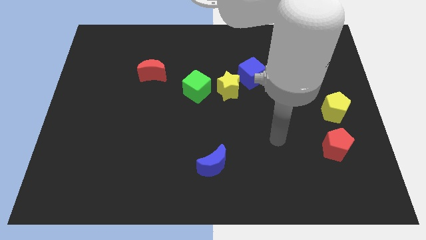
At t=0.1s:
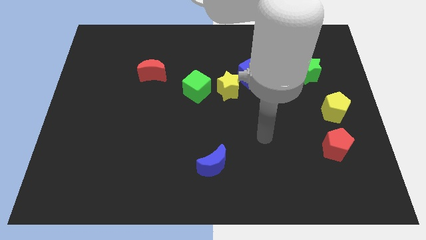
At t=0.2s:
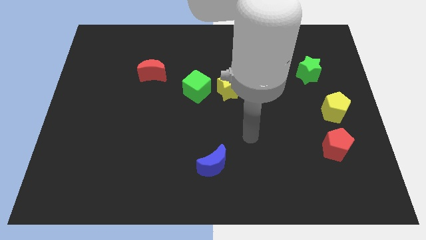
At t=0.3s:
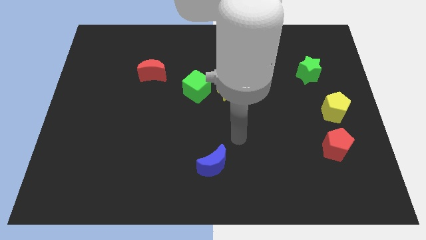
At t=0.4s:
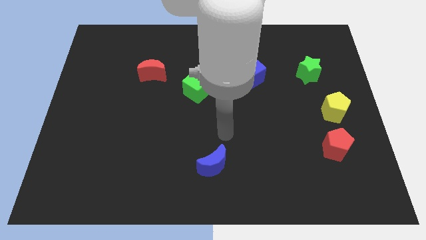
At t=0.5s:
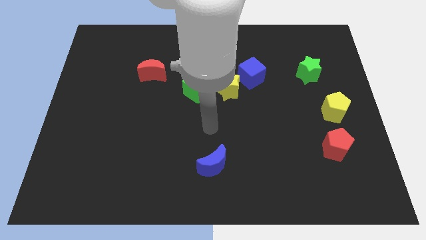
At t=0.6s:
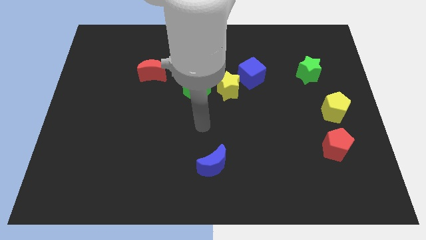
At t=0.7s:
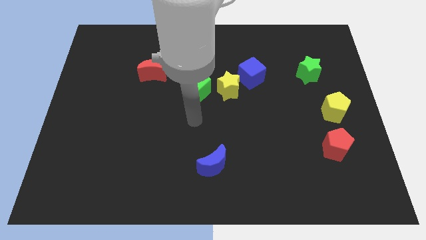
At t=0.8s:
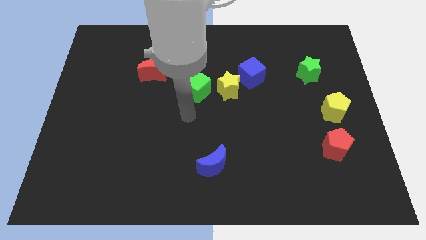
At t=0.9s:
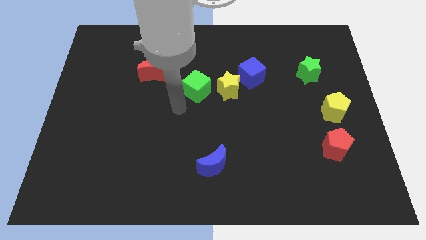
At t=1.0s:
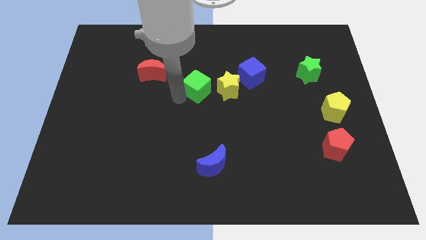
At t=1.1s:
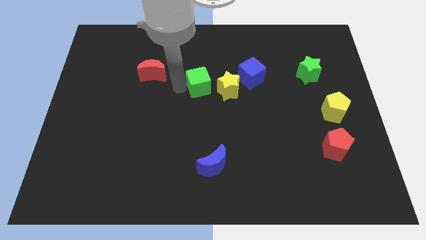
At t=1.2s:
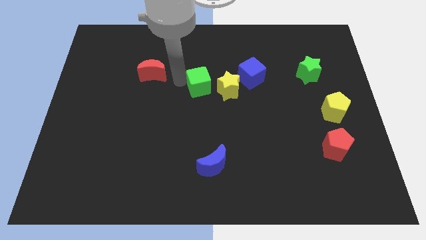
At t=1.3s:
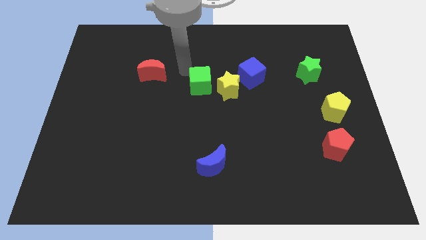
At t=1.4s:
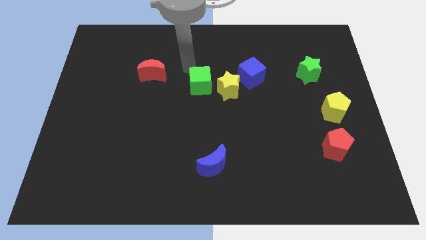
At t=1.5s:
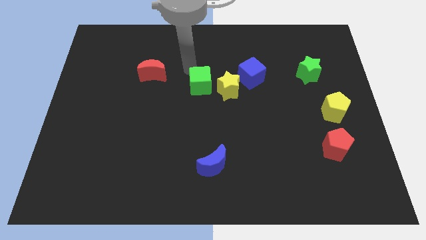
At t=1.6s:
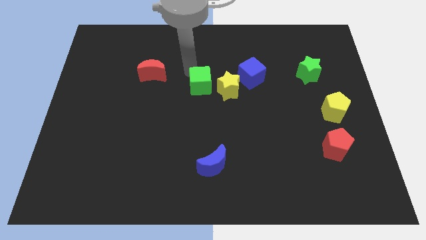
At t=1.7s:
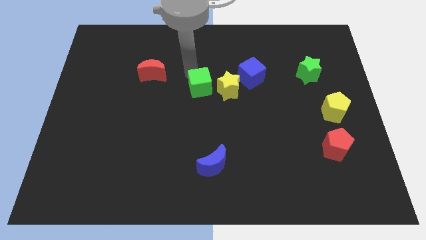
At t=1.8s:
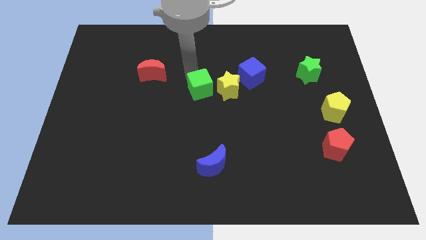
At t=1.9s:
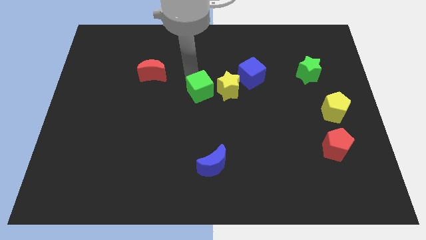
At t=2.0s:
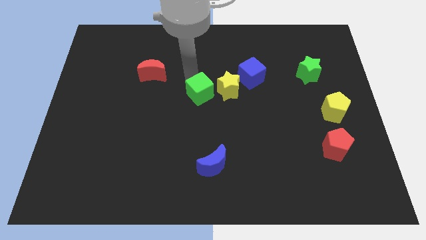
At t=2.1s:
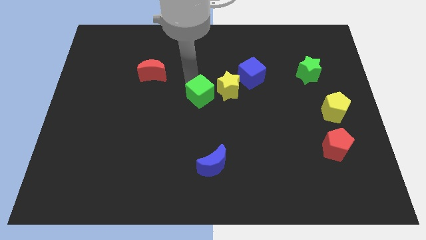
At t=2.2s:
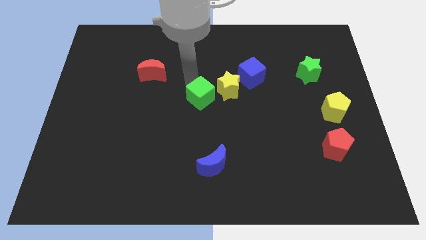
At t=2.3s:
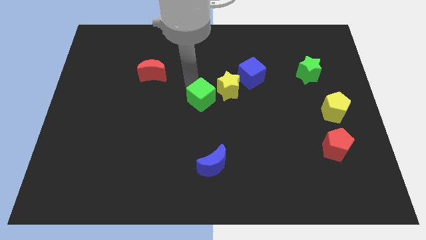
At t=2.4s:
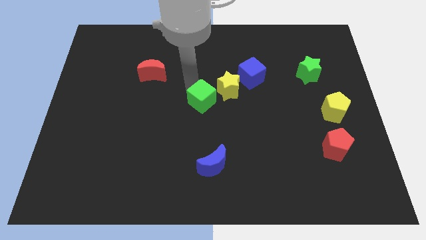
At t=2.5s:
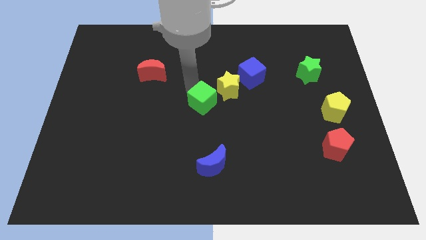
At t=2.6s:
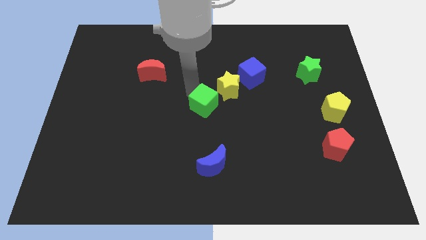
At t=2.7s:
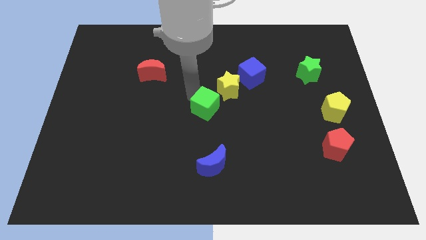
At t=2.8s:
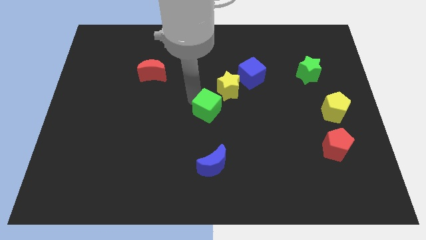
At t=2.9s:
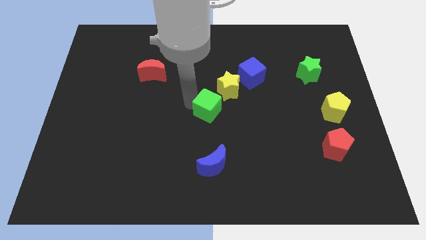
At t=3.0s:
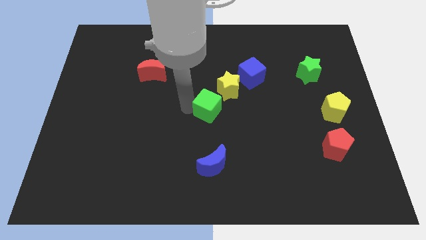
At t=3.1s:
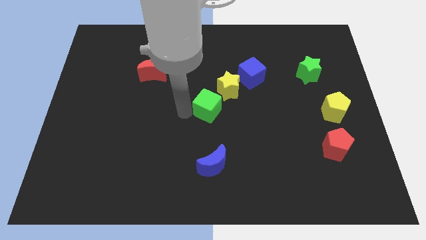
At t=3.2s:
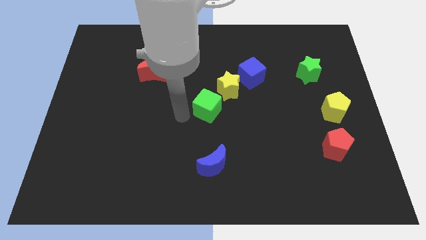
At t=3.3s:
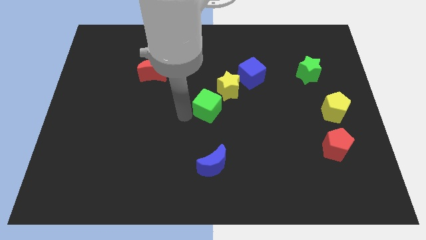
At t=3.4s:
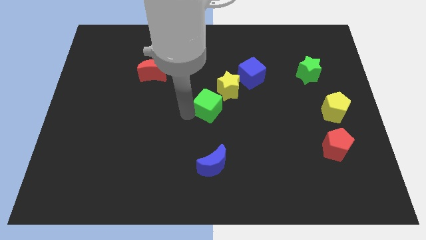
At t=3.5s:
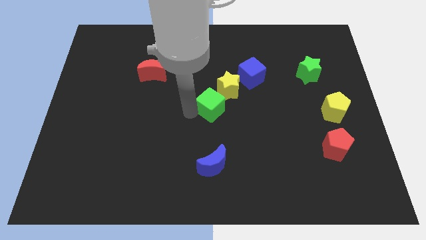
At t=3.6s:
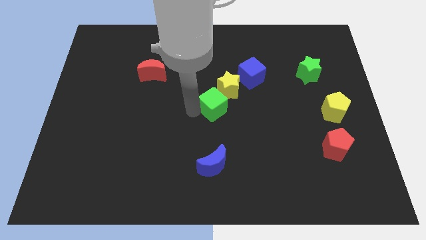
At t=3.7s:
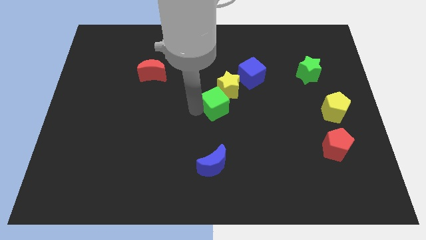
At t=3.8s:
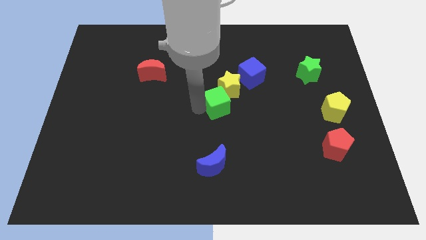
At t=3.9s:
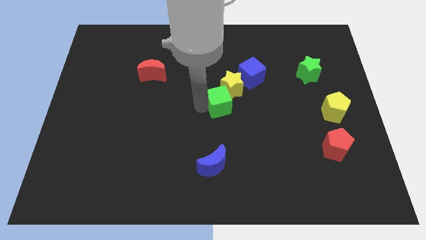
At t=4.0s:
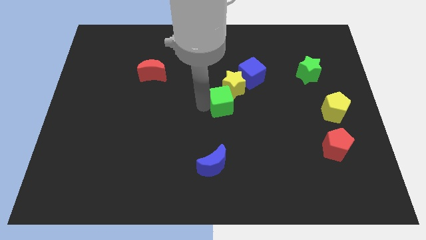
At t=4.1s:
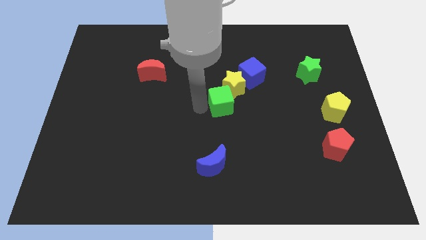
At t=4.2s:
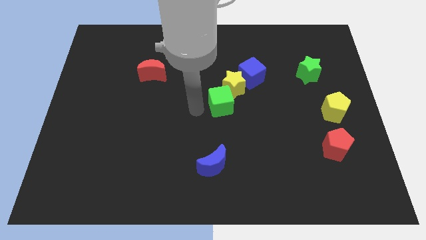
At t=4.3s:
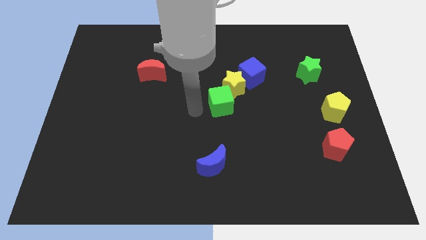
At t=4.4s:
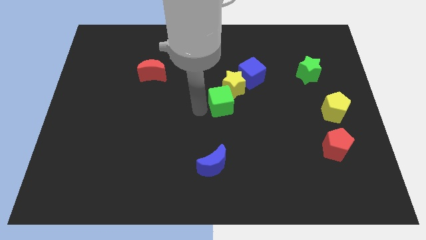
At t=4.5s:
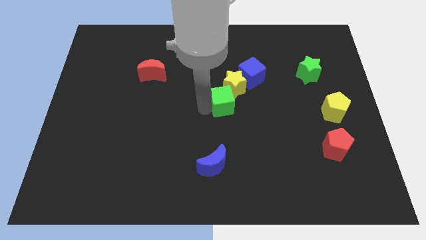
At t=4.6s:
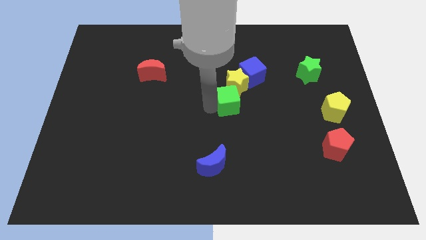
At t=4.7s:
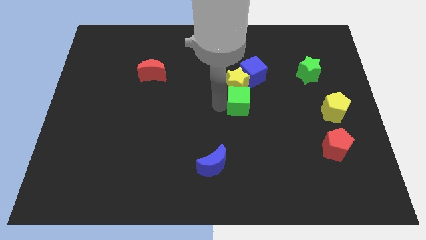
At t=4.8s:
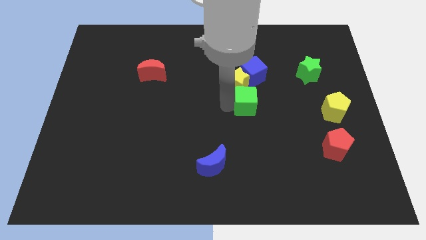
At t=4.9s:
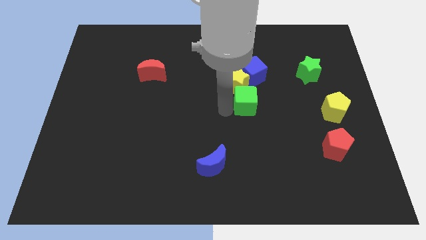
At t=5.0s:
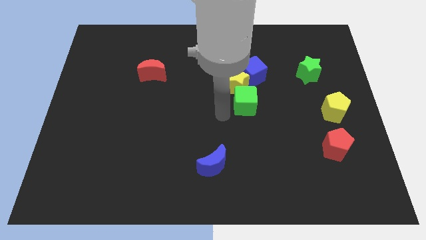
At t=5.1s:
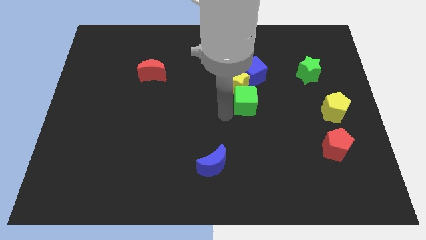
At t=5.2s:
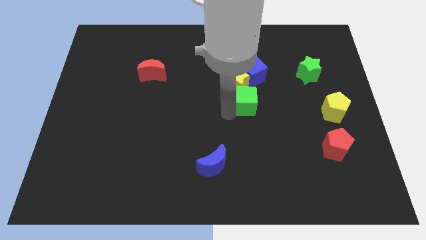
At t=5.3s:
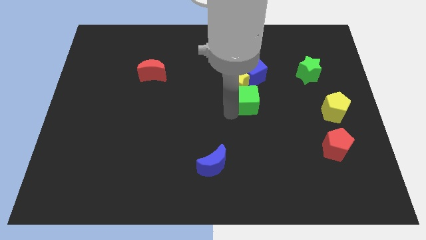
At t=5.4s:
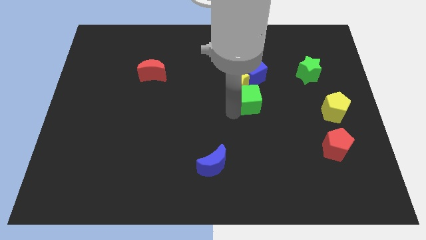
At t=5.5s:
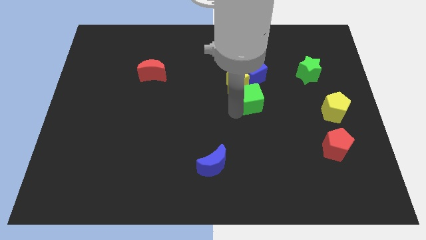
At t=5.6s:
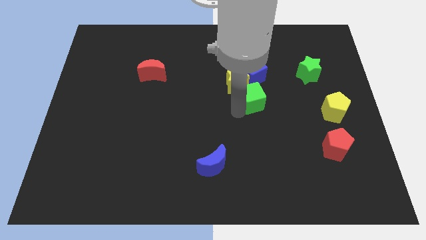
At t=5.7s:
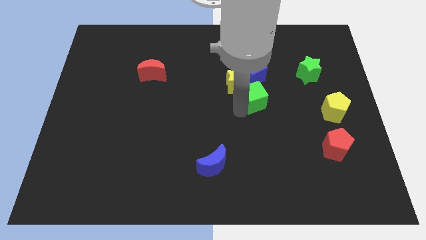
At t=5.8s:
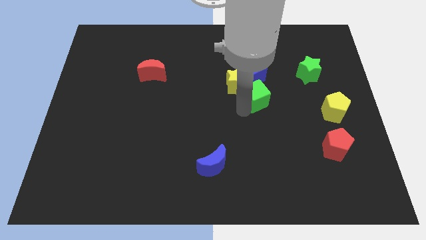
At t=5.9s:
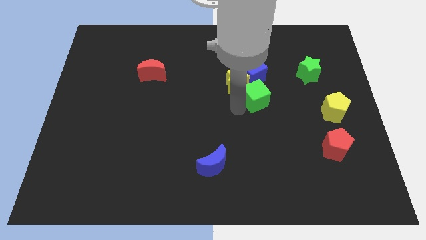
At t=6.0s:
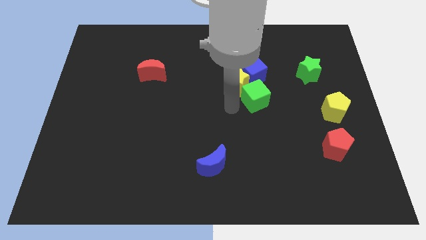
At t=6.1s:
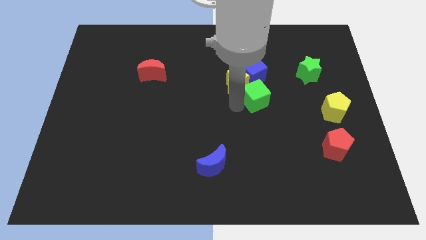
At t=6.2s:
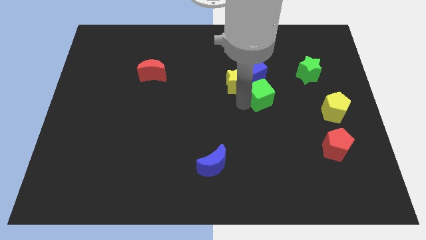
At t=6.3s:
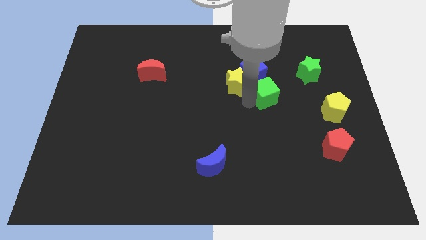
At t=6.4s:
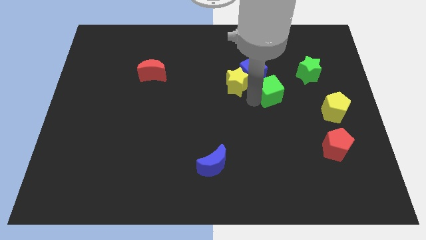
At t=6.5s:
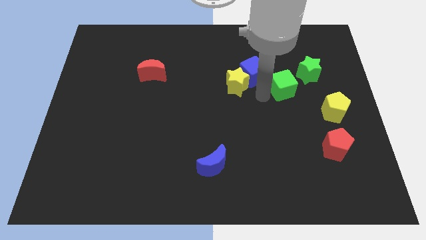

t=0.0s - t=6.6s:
push the green cube right

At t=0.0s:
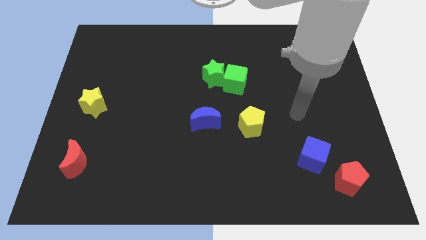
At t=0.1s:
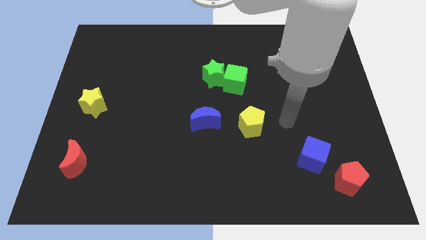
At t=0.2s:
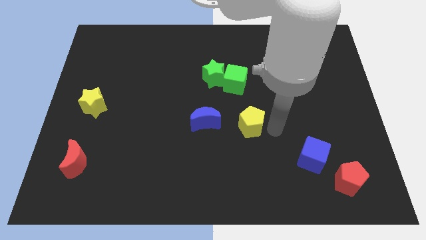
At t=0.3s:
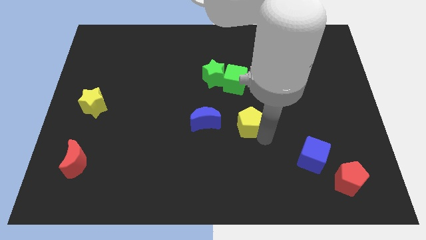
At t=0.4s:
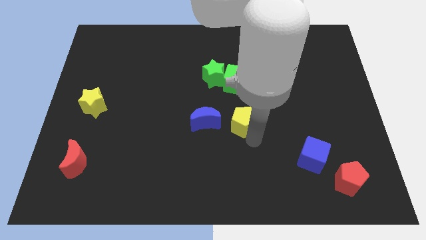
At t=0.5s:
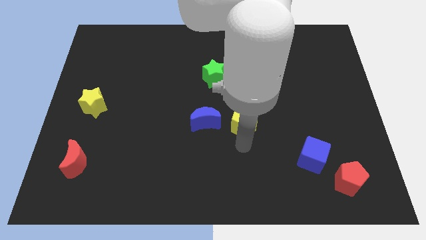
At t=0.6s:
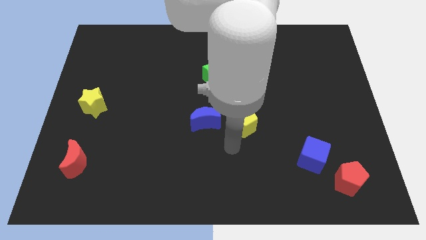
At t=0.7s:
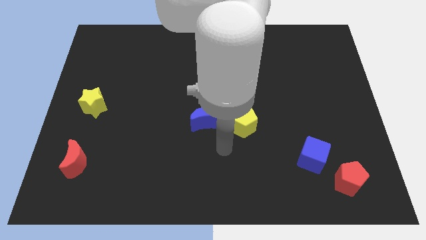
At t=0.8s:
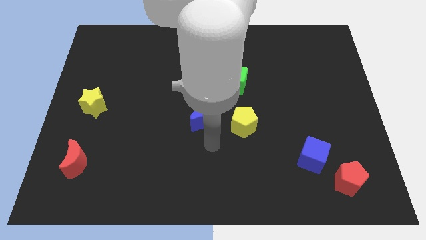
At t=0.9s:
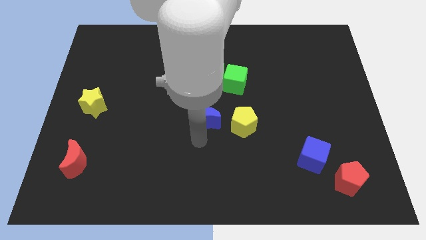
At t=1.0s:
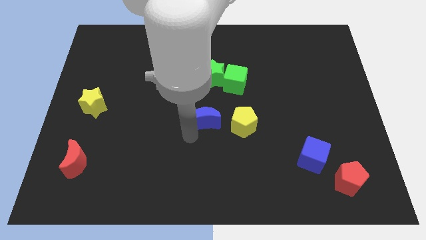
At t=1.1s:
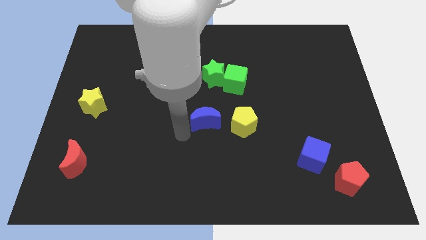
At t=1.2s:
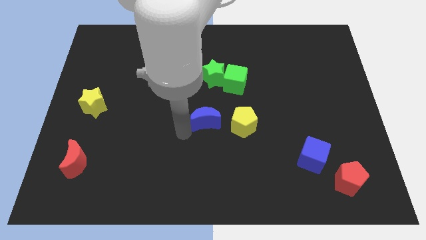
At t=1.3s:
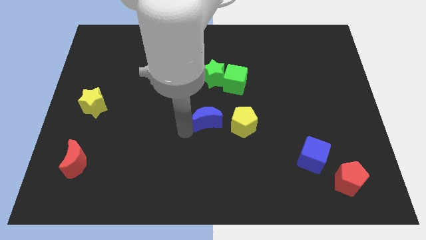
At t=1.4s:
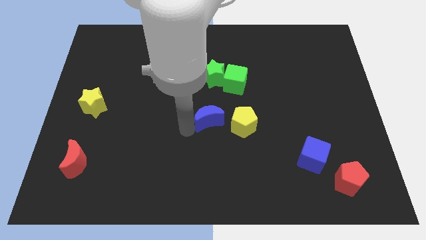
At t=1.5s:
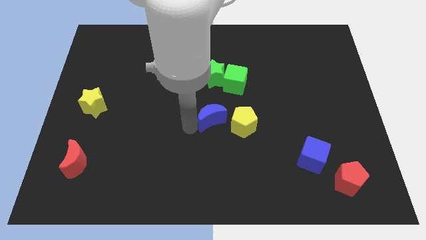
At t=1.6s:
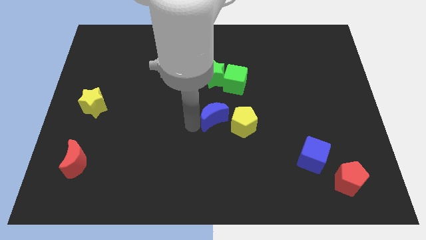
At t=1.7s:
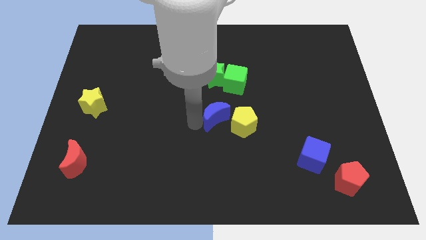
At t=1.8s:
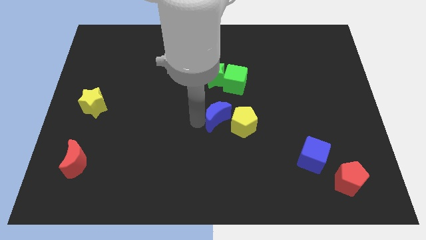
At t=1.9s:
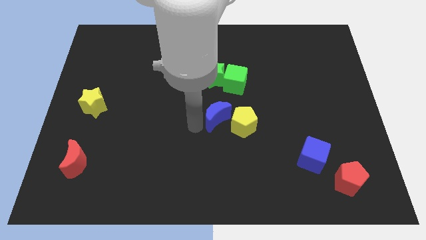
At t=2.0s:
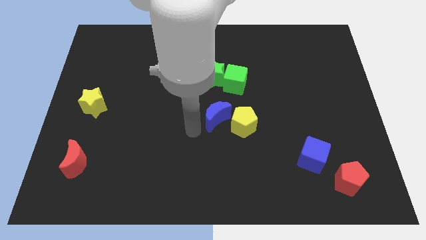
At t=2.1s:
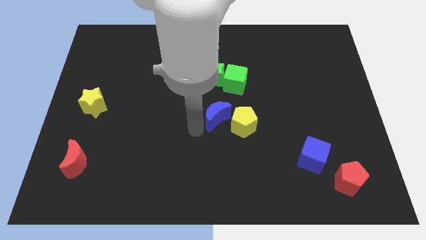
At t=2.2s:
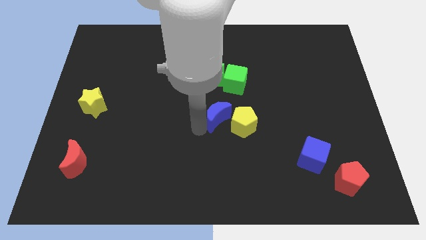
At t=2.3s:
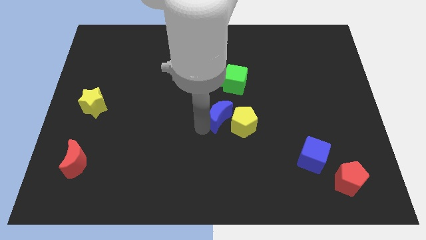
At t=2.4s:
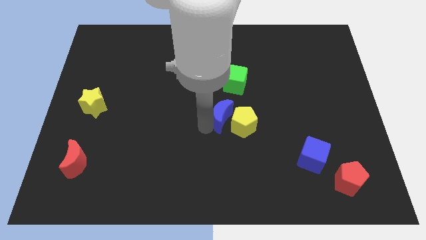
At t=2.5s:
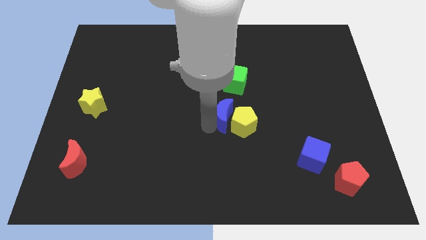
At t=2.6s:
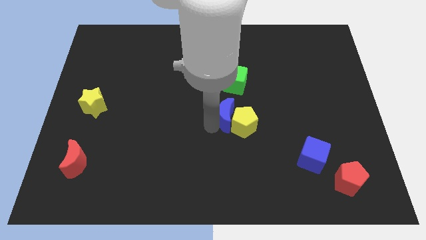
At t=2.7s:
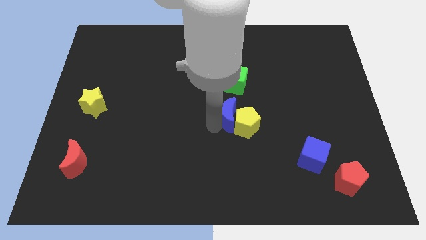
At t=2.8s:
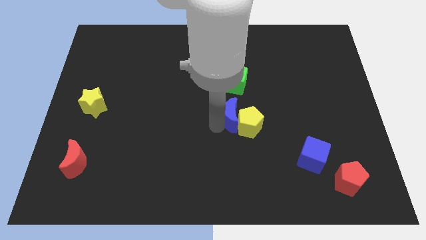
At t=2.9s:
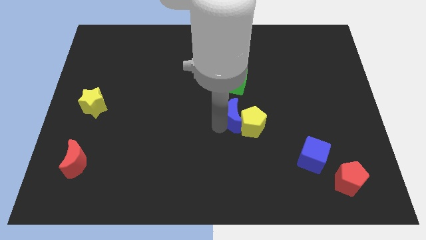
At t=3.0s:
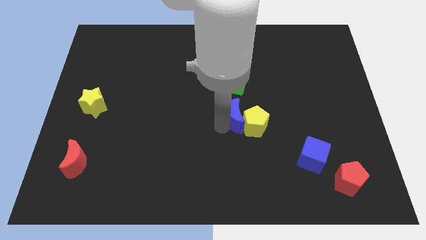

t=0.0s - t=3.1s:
slightly move the blue moon to the right
